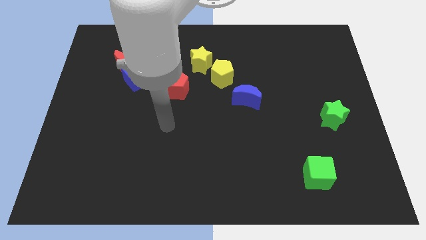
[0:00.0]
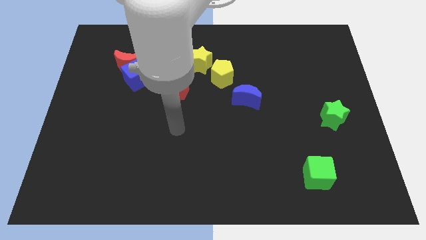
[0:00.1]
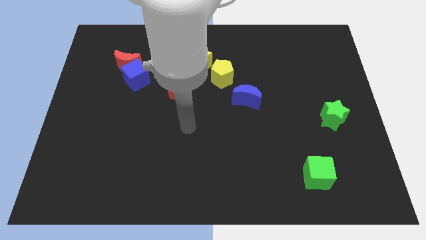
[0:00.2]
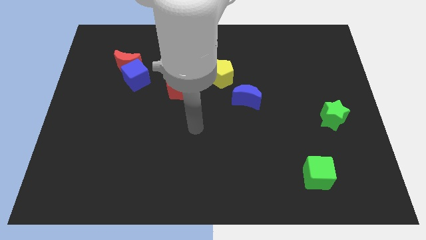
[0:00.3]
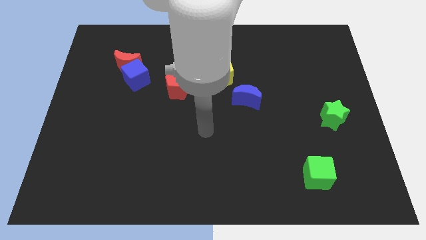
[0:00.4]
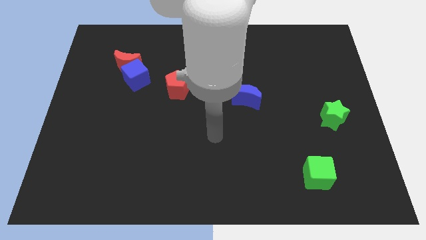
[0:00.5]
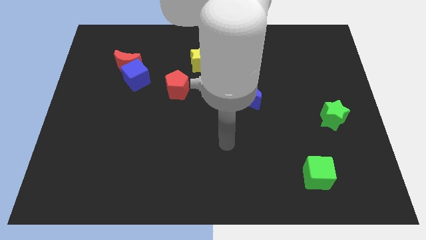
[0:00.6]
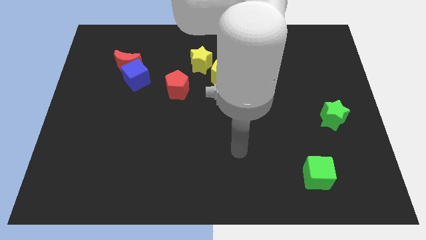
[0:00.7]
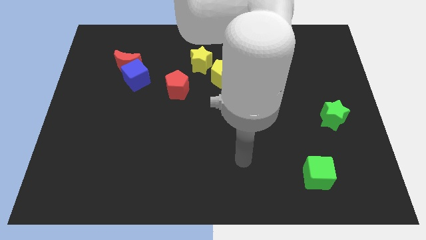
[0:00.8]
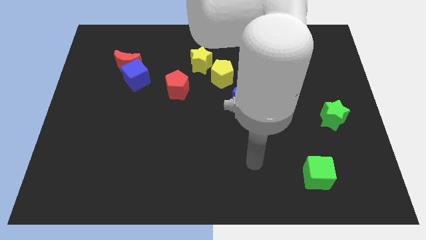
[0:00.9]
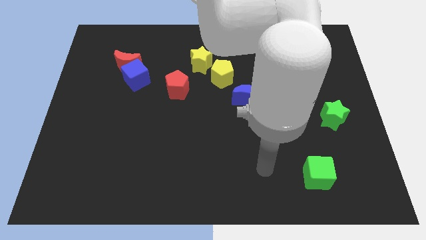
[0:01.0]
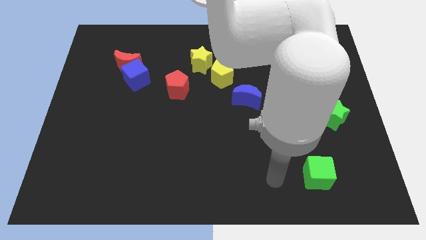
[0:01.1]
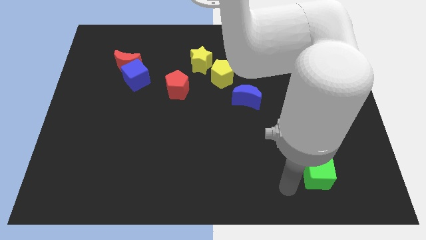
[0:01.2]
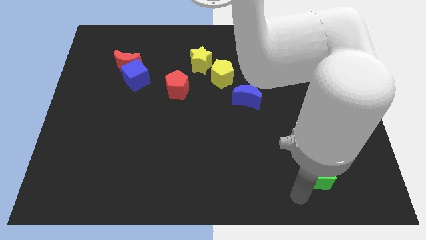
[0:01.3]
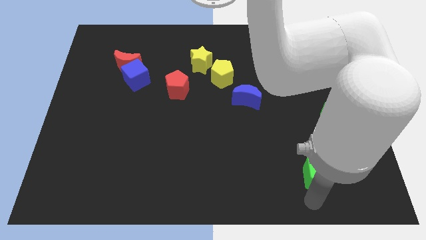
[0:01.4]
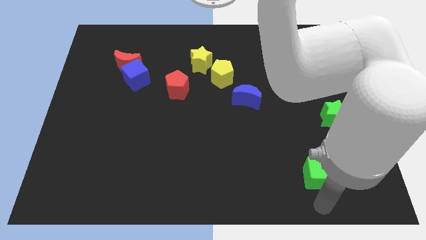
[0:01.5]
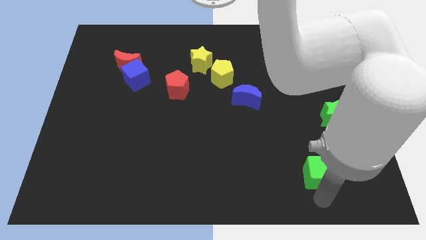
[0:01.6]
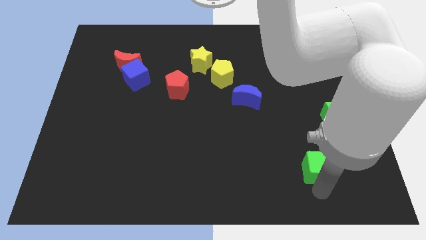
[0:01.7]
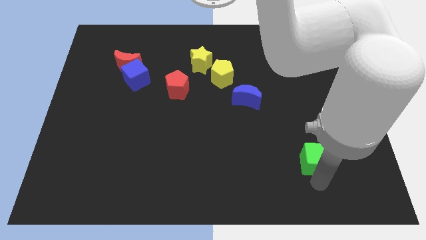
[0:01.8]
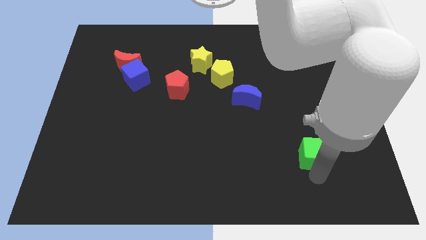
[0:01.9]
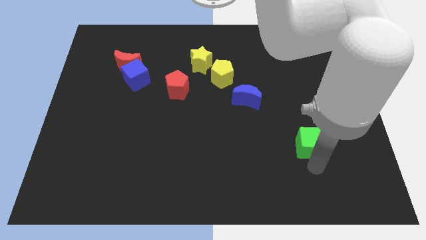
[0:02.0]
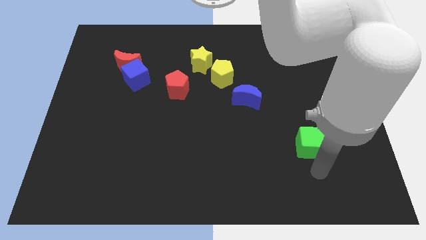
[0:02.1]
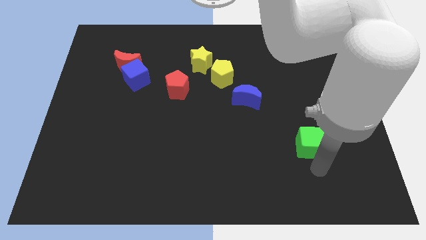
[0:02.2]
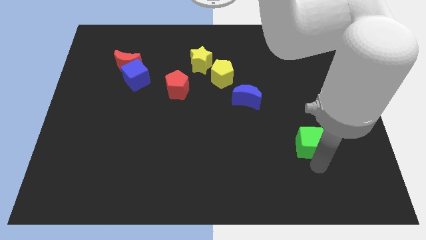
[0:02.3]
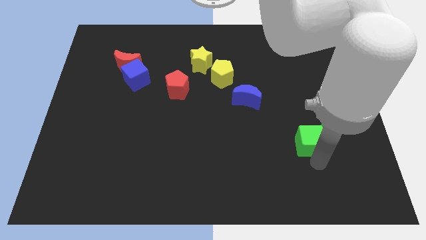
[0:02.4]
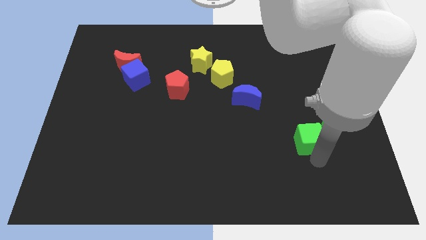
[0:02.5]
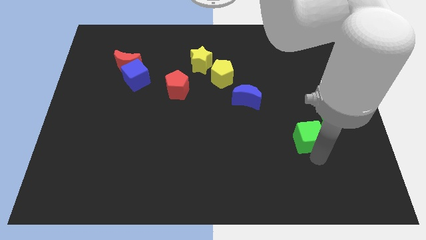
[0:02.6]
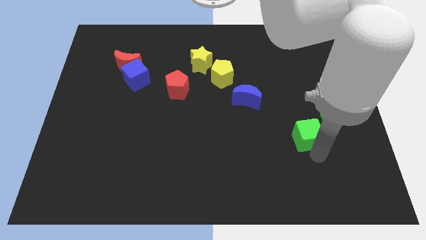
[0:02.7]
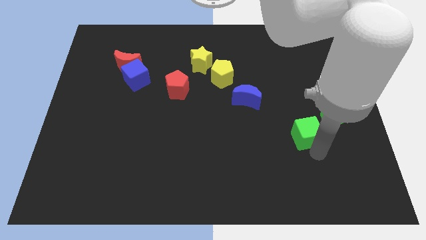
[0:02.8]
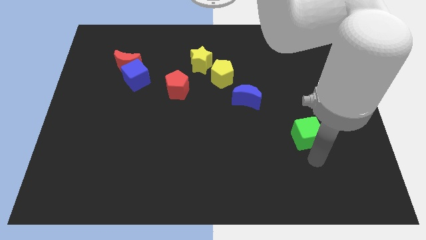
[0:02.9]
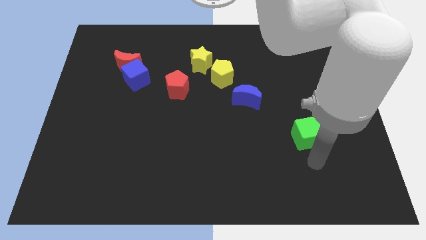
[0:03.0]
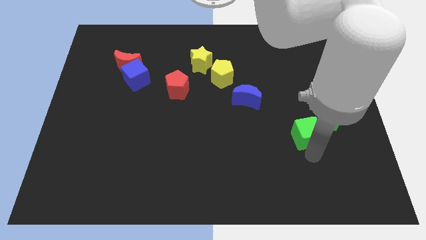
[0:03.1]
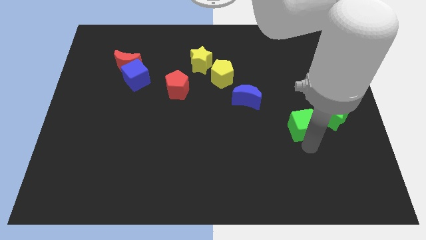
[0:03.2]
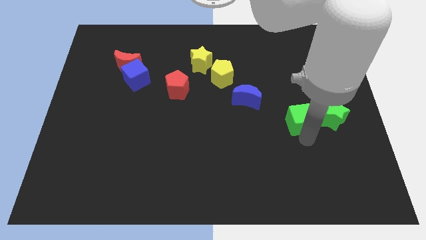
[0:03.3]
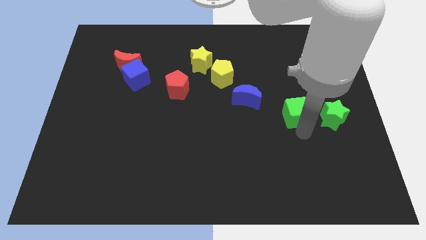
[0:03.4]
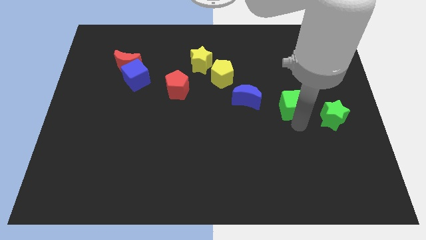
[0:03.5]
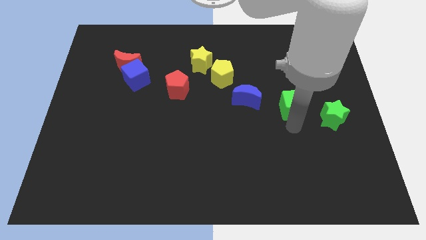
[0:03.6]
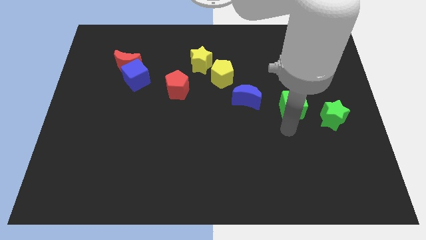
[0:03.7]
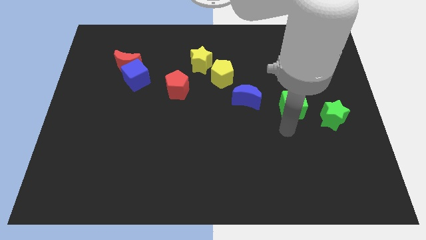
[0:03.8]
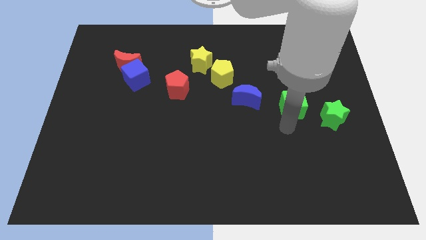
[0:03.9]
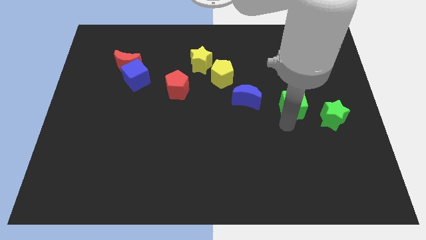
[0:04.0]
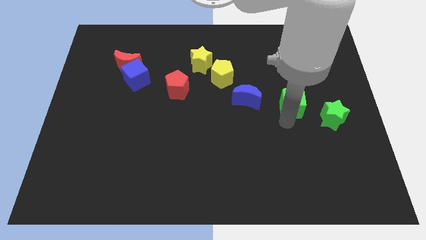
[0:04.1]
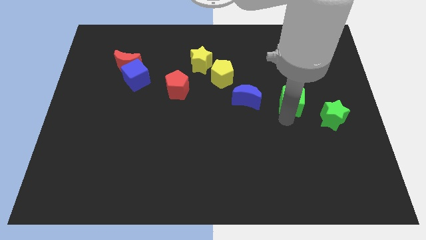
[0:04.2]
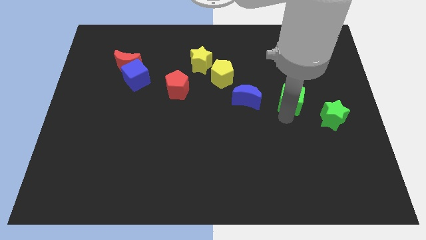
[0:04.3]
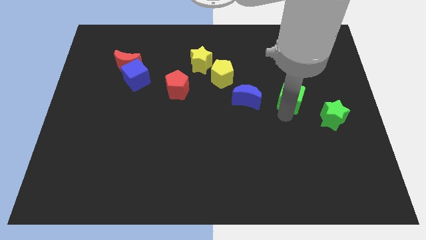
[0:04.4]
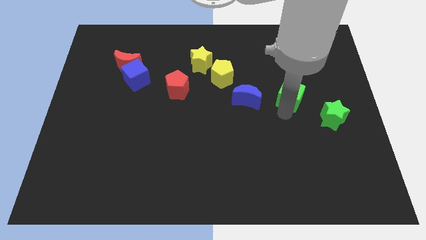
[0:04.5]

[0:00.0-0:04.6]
push the green cube upwards

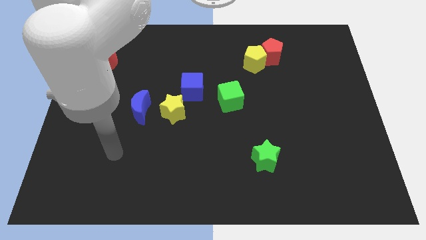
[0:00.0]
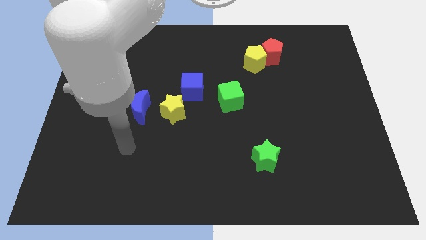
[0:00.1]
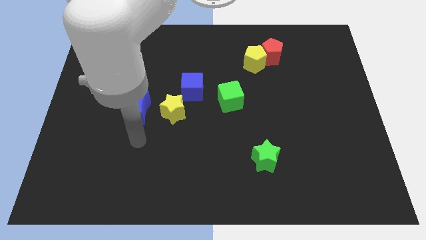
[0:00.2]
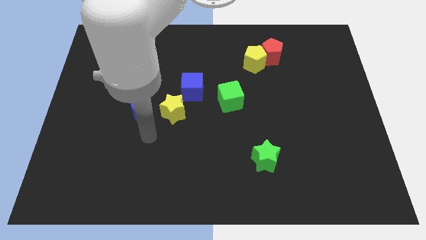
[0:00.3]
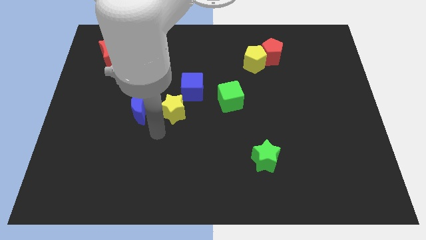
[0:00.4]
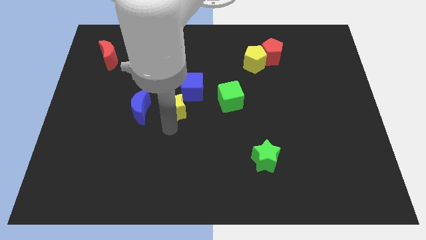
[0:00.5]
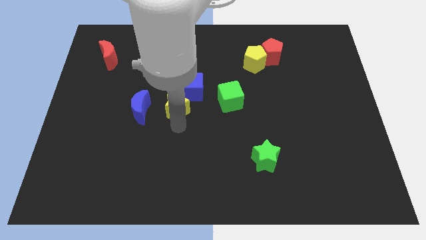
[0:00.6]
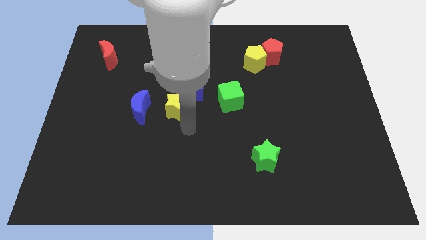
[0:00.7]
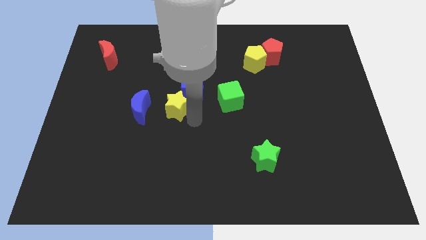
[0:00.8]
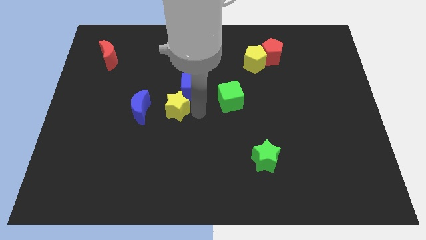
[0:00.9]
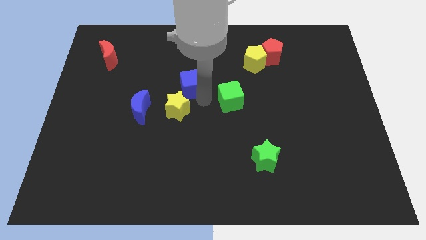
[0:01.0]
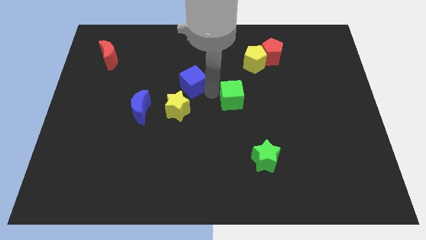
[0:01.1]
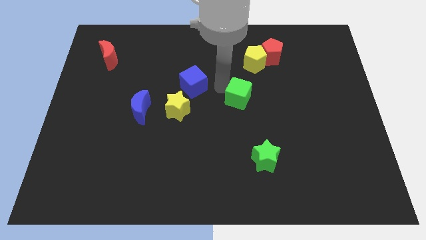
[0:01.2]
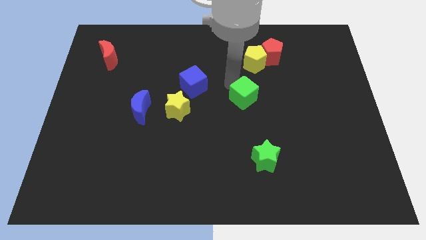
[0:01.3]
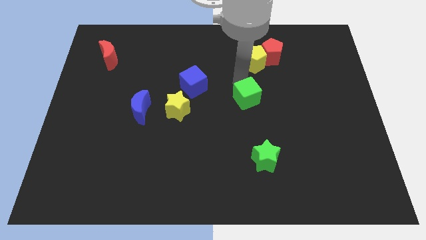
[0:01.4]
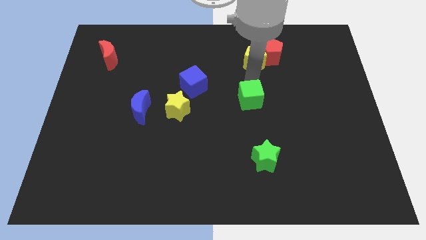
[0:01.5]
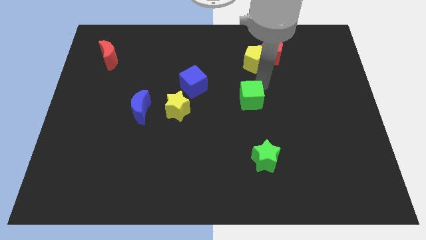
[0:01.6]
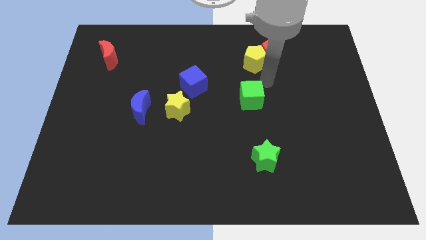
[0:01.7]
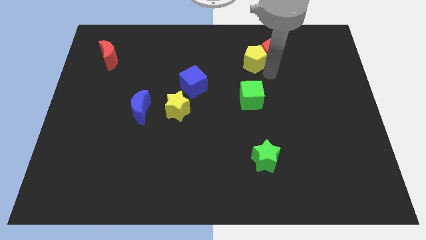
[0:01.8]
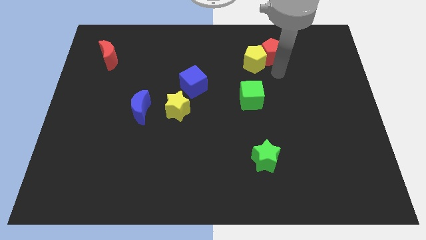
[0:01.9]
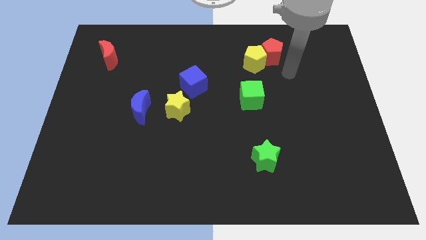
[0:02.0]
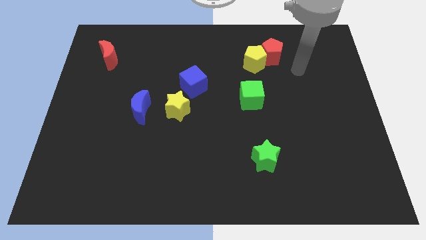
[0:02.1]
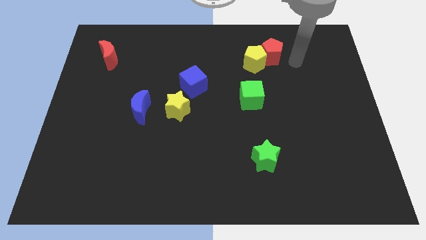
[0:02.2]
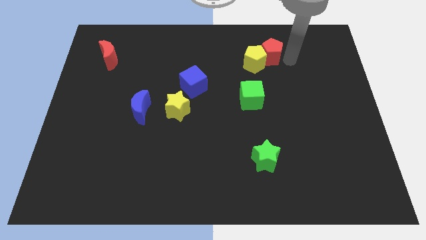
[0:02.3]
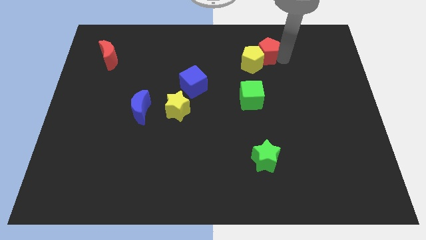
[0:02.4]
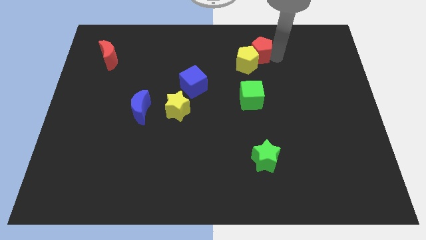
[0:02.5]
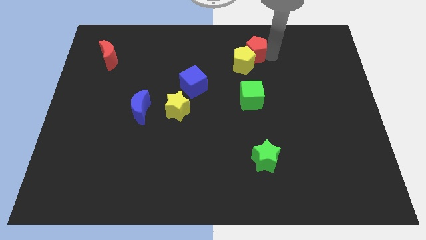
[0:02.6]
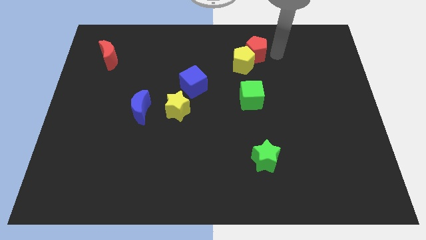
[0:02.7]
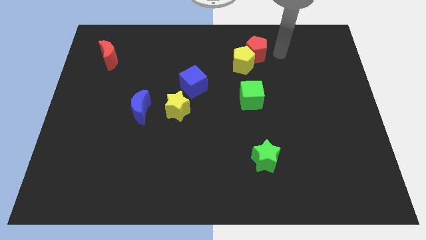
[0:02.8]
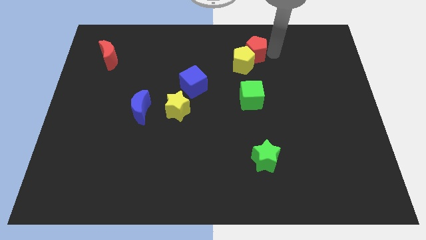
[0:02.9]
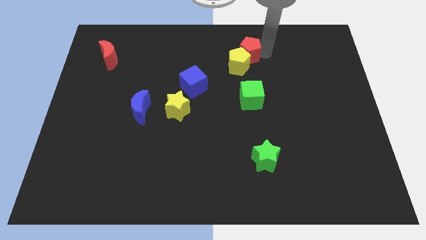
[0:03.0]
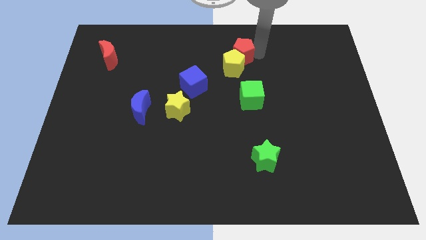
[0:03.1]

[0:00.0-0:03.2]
push the red pentagon a little bit left
